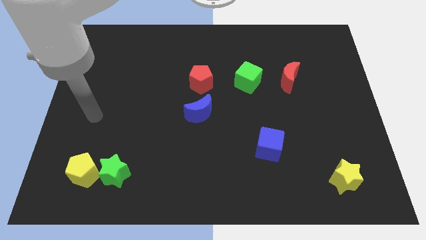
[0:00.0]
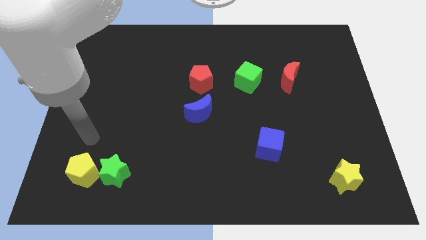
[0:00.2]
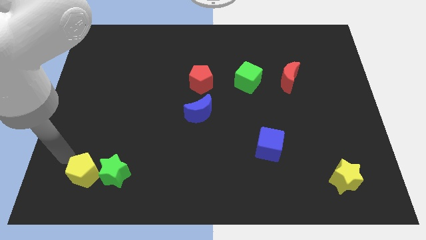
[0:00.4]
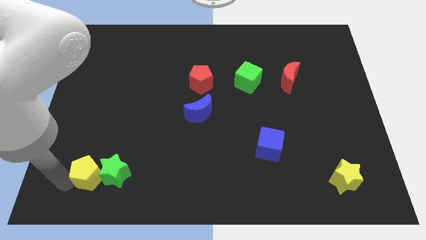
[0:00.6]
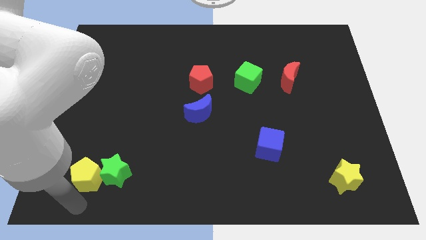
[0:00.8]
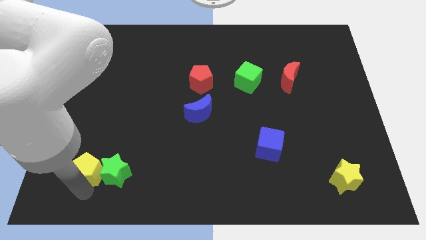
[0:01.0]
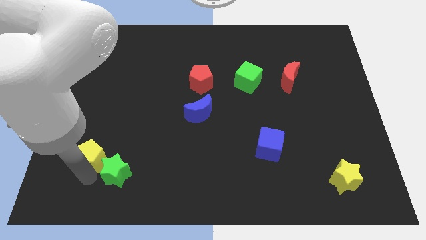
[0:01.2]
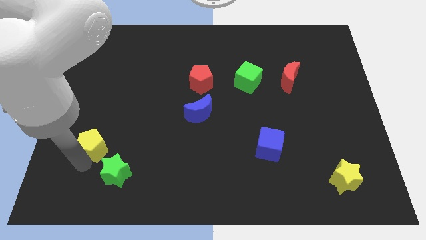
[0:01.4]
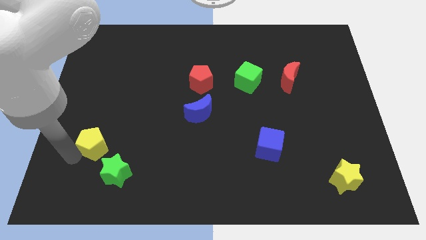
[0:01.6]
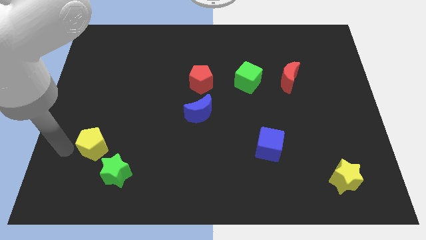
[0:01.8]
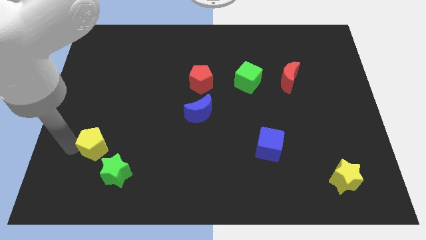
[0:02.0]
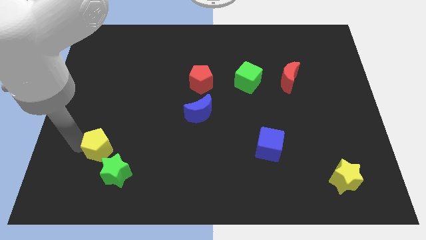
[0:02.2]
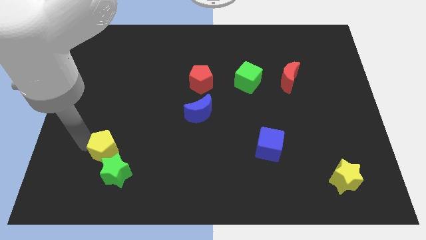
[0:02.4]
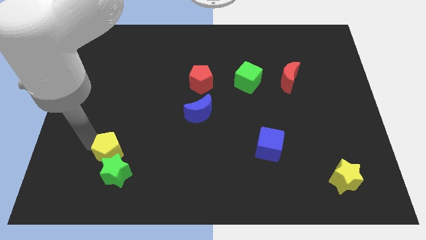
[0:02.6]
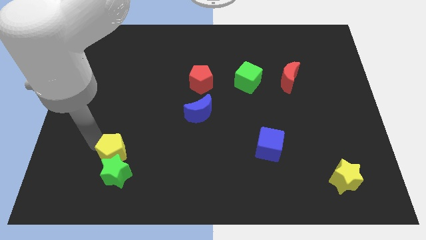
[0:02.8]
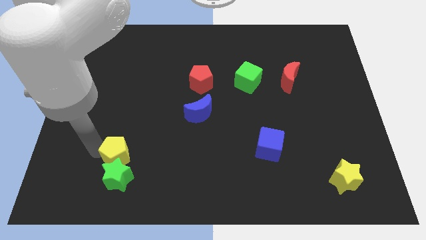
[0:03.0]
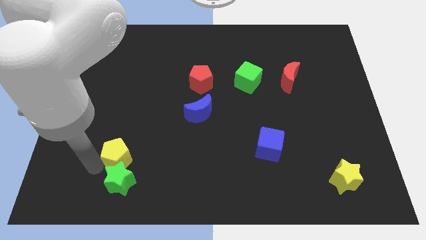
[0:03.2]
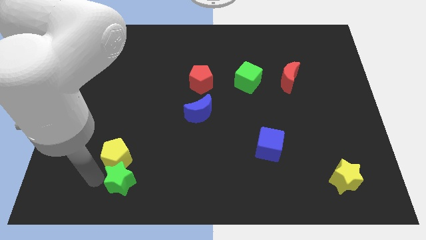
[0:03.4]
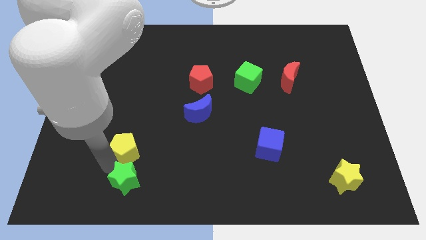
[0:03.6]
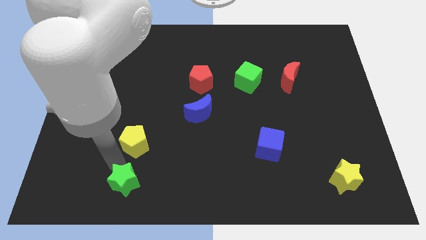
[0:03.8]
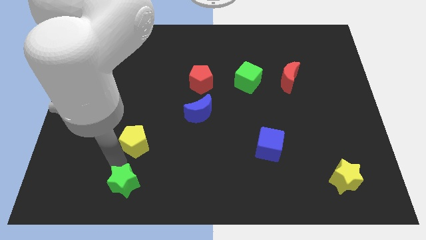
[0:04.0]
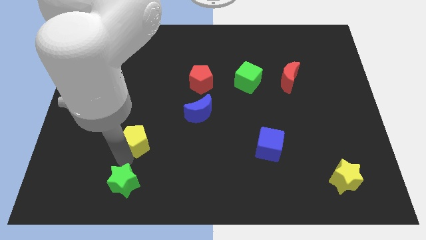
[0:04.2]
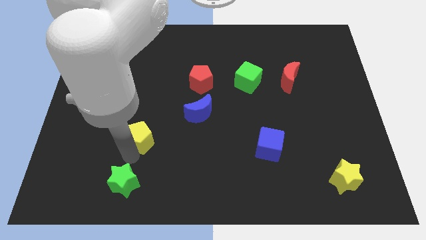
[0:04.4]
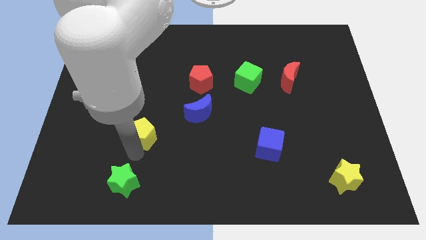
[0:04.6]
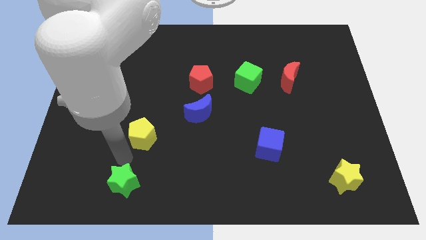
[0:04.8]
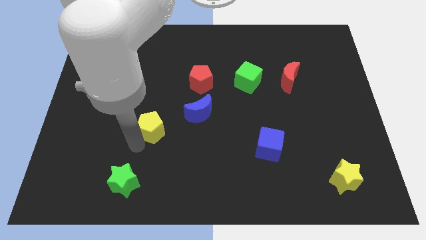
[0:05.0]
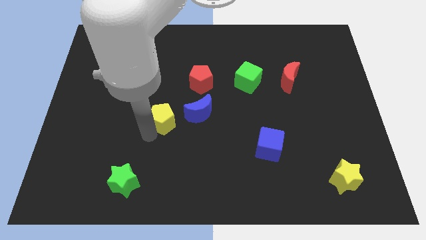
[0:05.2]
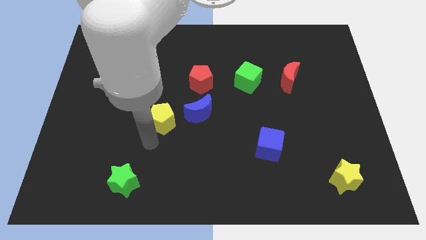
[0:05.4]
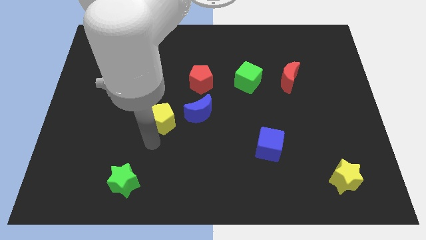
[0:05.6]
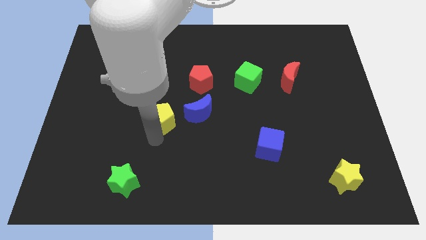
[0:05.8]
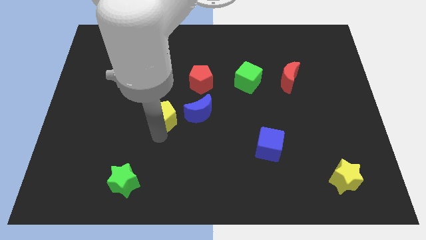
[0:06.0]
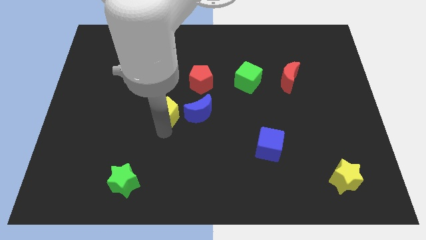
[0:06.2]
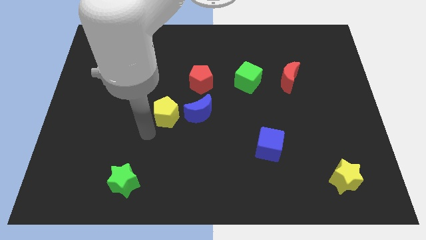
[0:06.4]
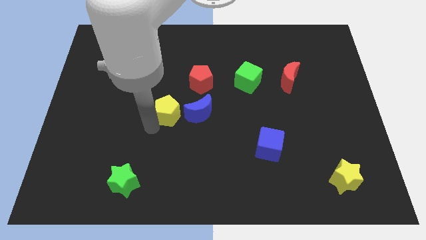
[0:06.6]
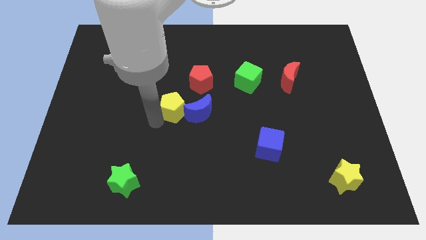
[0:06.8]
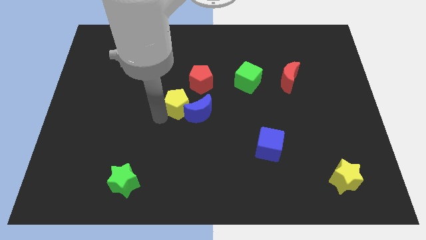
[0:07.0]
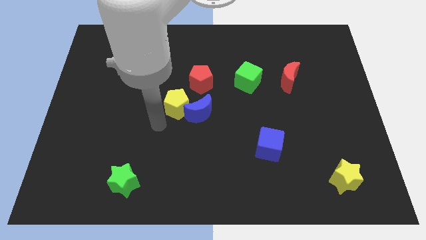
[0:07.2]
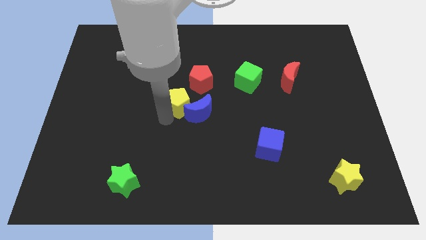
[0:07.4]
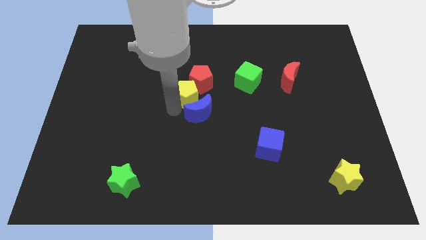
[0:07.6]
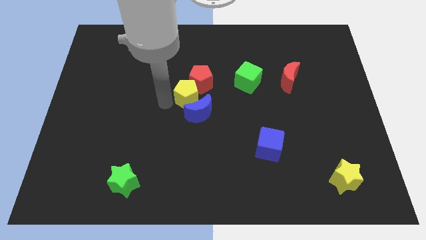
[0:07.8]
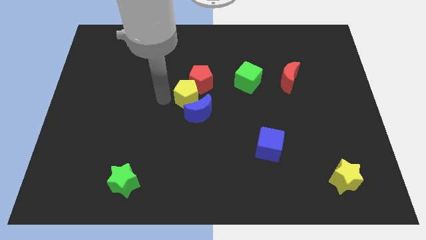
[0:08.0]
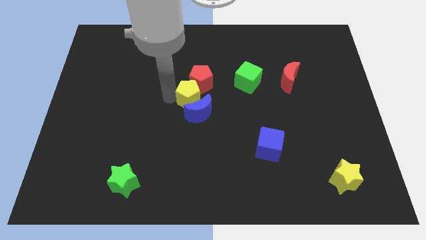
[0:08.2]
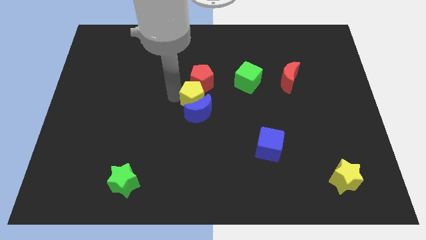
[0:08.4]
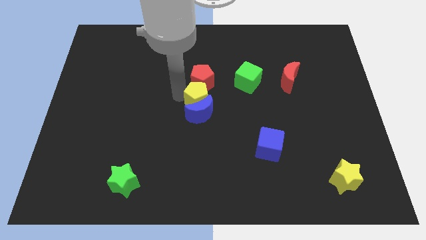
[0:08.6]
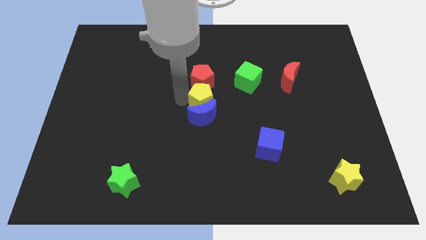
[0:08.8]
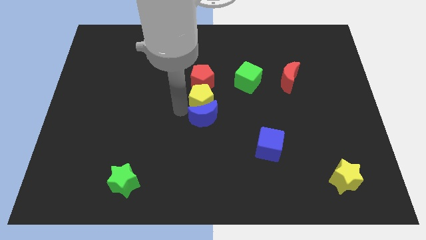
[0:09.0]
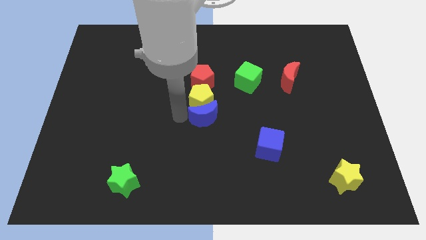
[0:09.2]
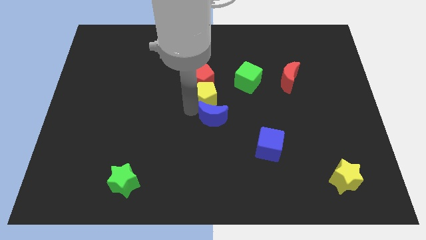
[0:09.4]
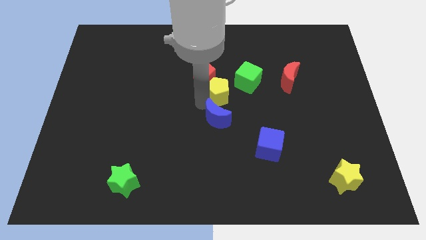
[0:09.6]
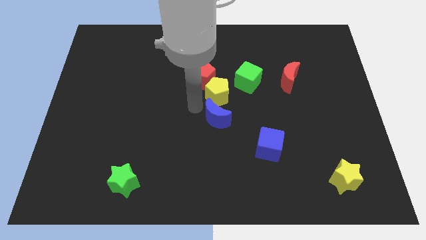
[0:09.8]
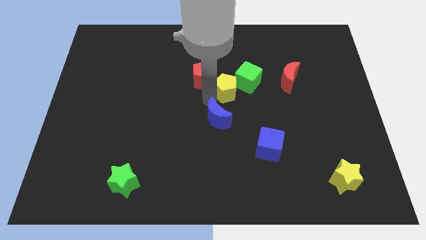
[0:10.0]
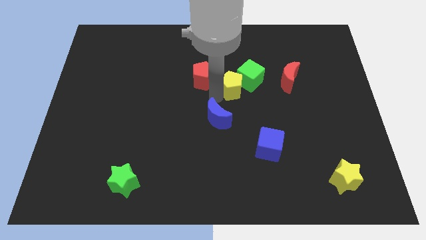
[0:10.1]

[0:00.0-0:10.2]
slide the yellow pentagon next to the green cube

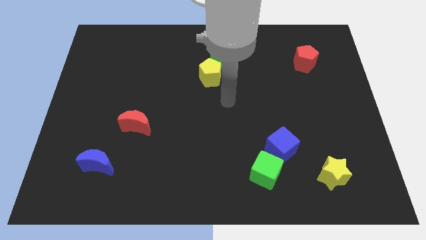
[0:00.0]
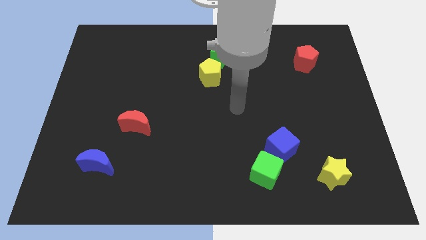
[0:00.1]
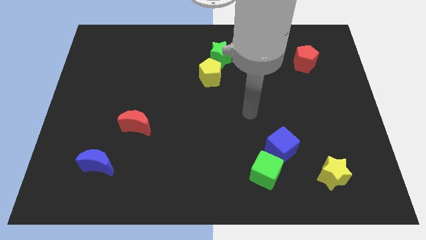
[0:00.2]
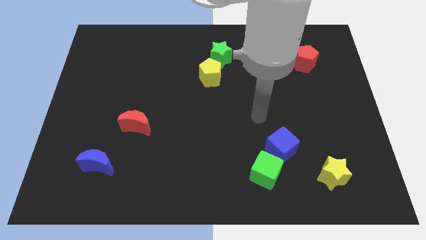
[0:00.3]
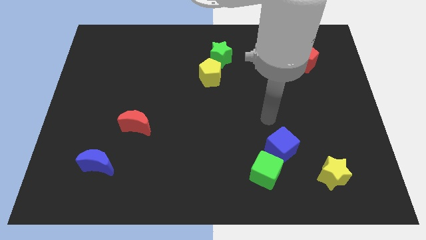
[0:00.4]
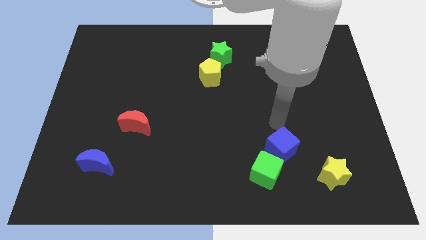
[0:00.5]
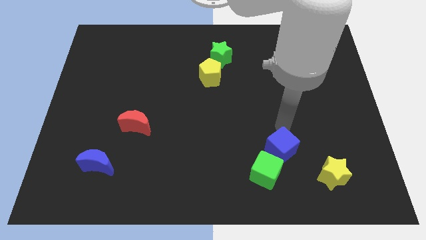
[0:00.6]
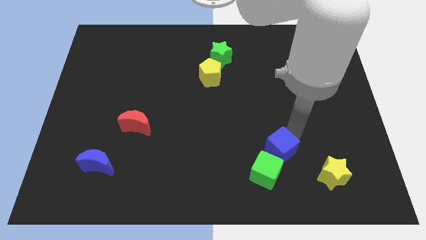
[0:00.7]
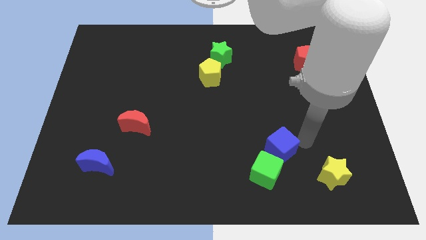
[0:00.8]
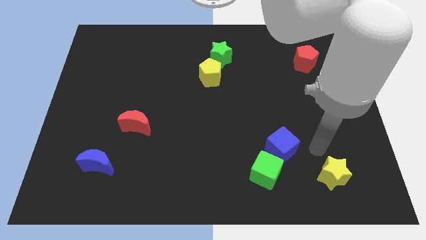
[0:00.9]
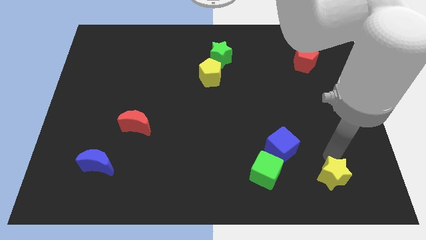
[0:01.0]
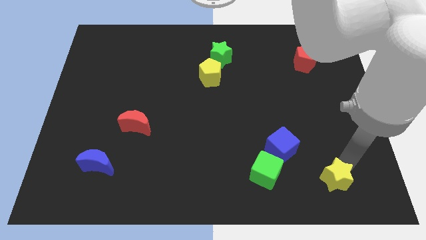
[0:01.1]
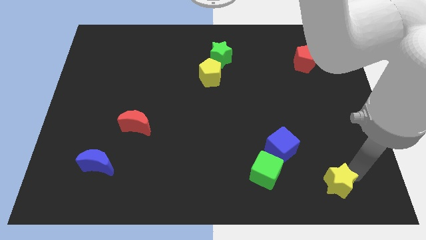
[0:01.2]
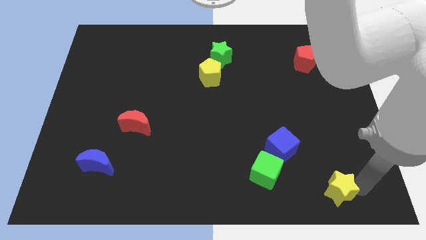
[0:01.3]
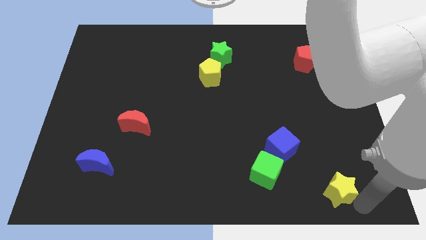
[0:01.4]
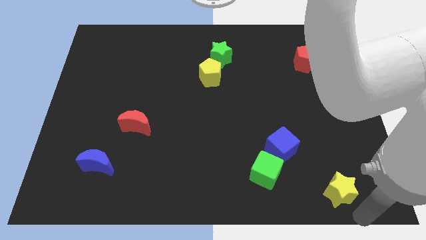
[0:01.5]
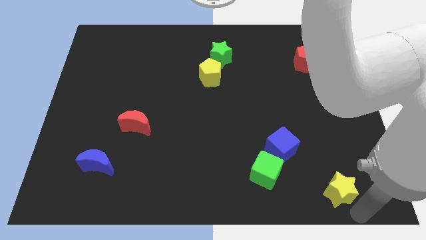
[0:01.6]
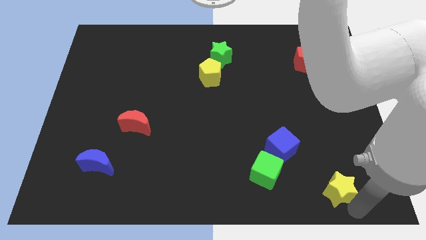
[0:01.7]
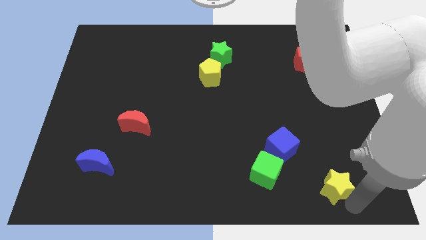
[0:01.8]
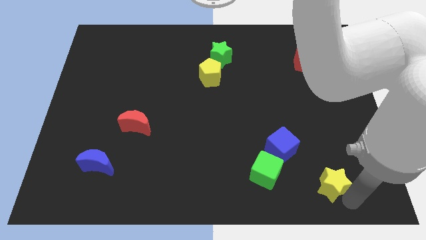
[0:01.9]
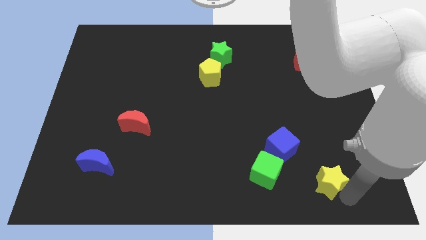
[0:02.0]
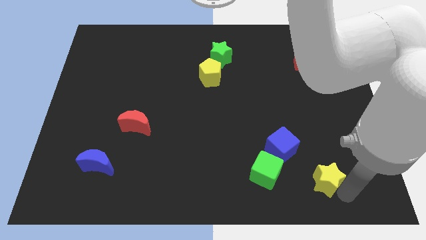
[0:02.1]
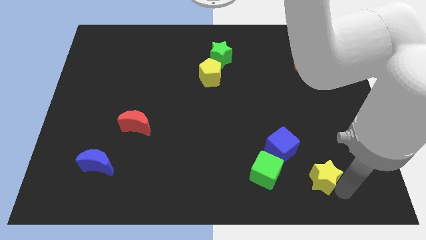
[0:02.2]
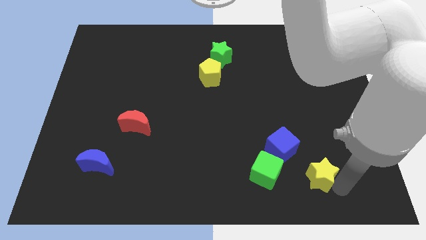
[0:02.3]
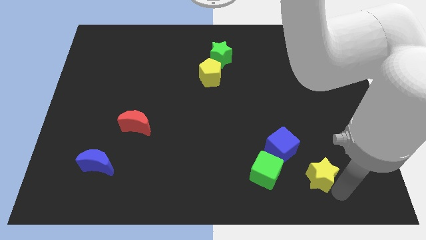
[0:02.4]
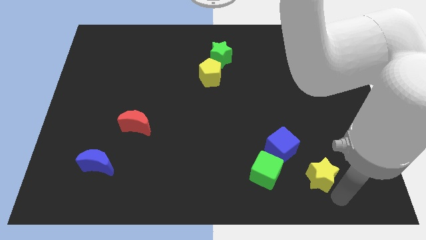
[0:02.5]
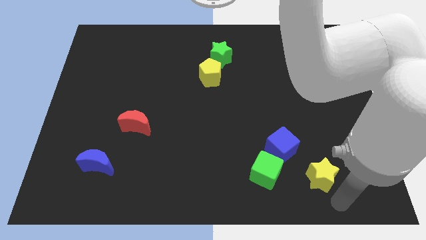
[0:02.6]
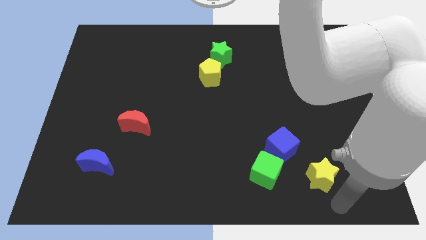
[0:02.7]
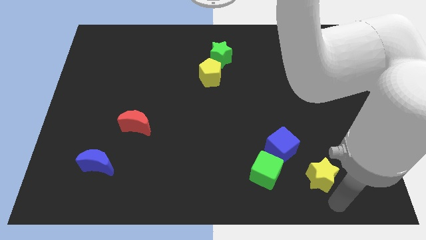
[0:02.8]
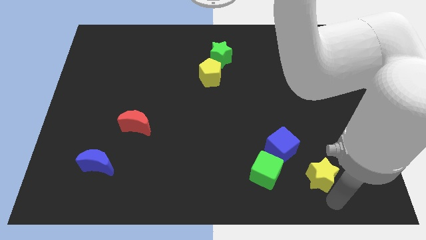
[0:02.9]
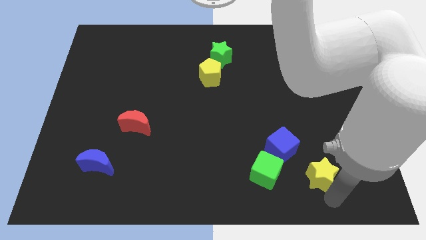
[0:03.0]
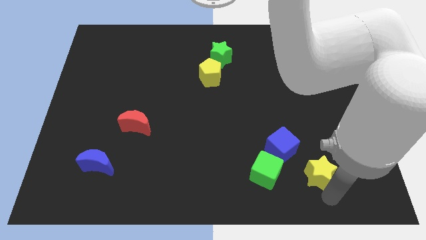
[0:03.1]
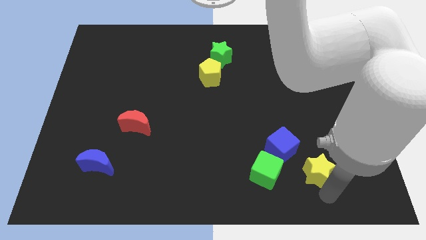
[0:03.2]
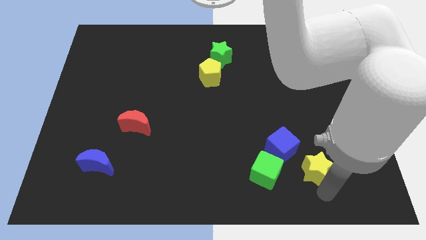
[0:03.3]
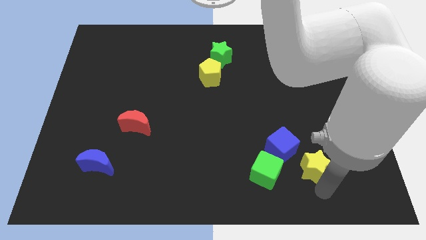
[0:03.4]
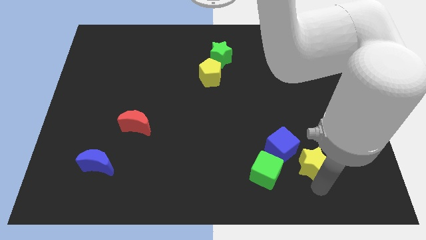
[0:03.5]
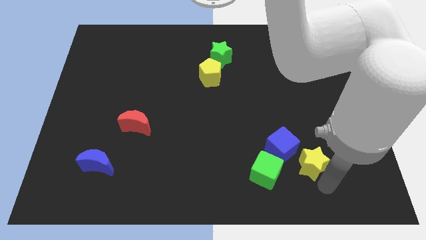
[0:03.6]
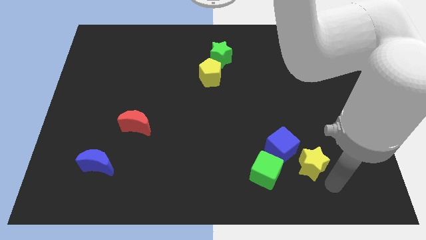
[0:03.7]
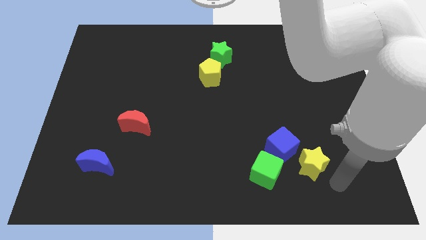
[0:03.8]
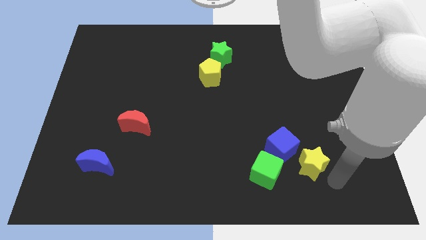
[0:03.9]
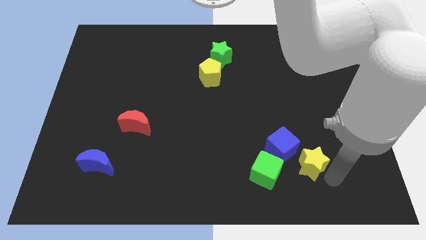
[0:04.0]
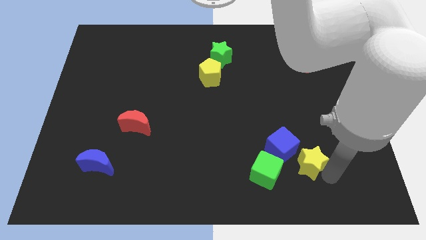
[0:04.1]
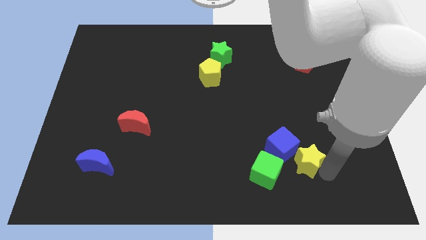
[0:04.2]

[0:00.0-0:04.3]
move the yellow star towards the blue cube
